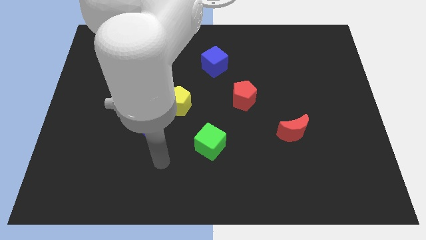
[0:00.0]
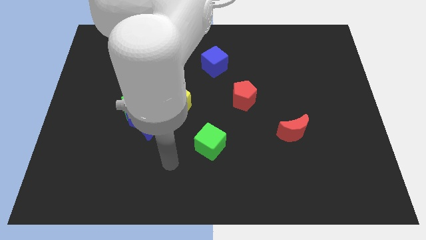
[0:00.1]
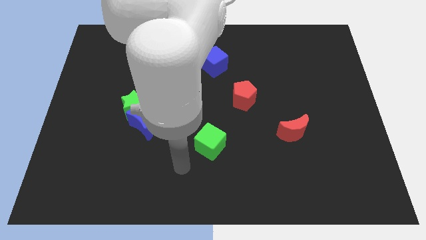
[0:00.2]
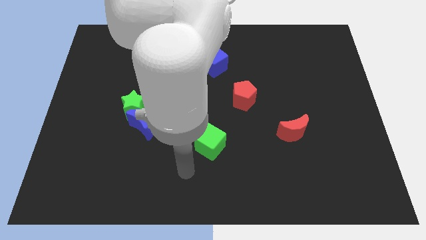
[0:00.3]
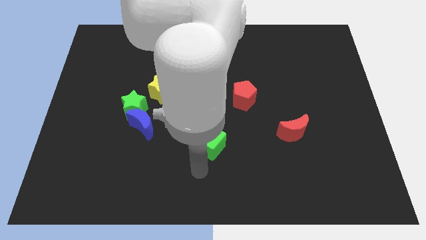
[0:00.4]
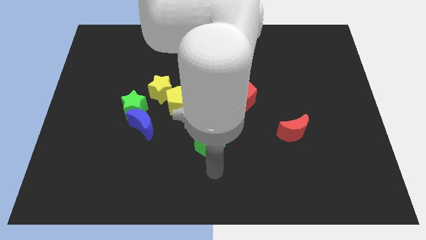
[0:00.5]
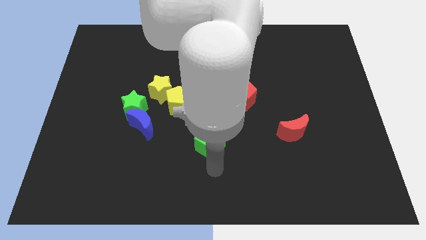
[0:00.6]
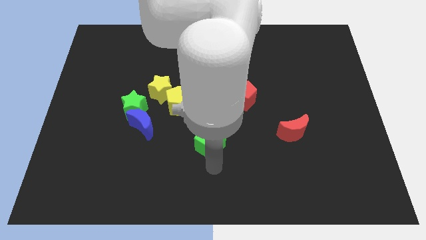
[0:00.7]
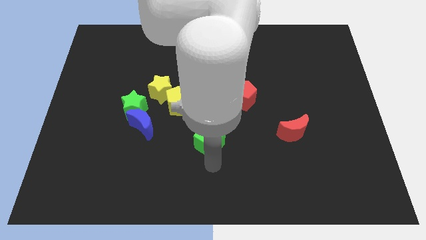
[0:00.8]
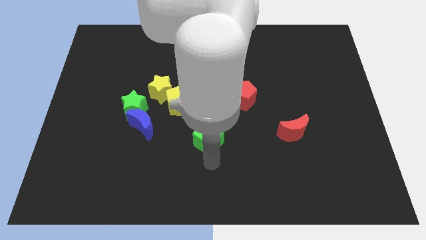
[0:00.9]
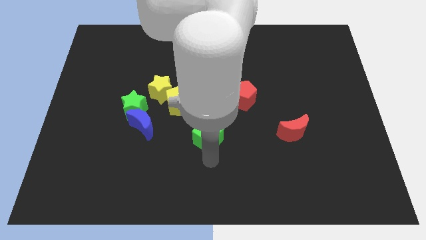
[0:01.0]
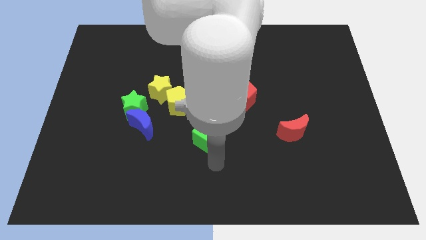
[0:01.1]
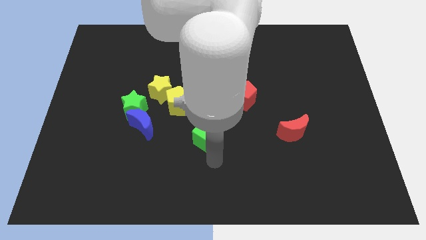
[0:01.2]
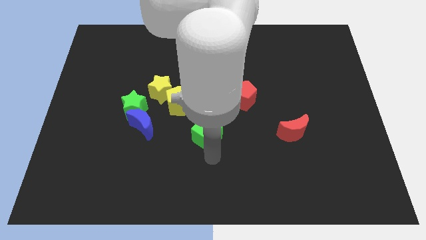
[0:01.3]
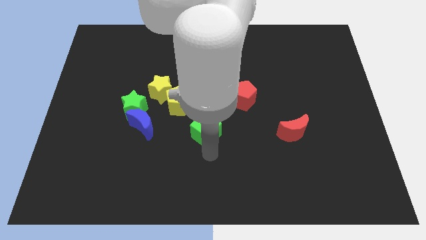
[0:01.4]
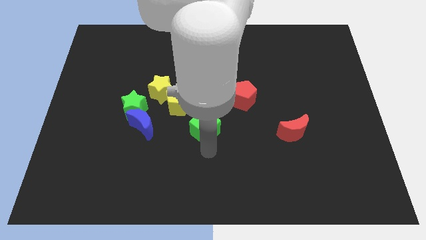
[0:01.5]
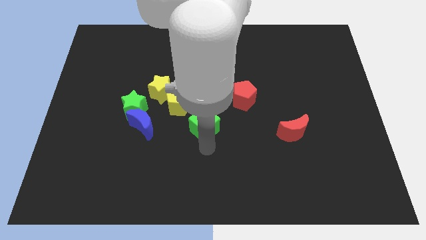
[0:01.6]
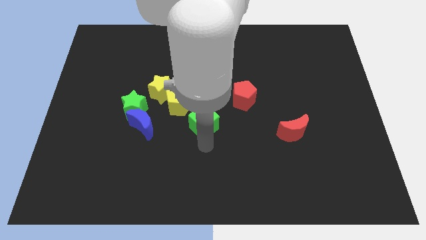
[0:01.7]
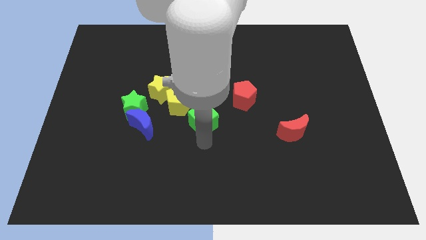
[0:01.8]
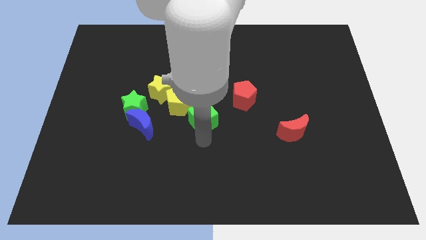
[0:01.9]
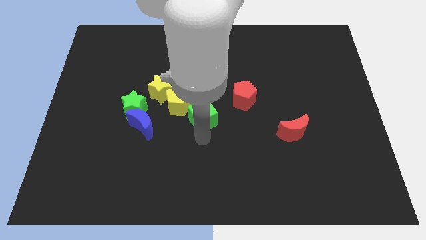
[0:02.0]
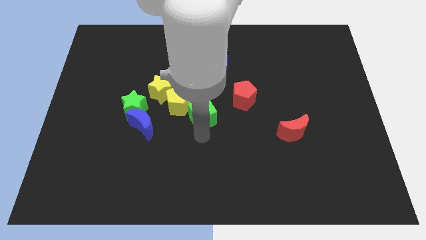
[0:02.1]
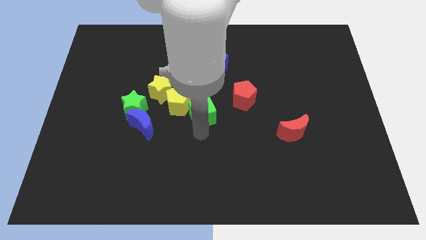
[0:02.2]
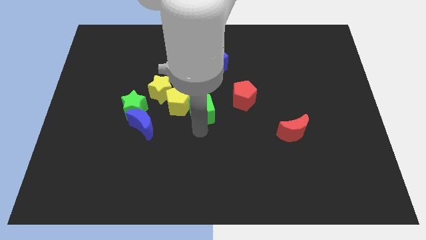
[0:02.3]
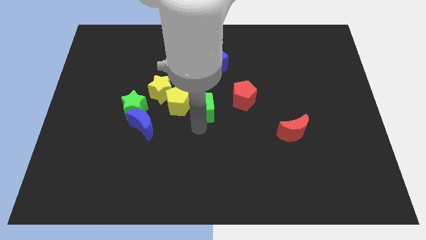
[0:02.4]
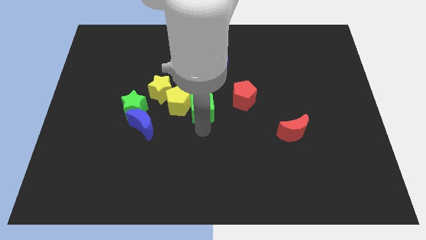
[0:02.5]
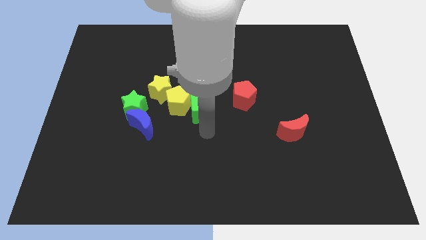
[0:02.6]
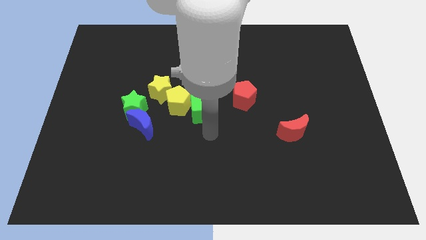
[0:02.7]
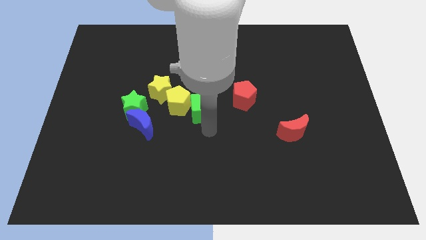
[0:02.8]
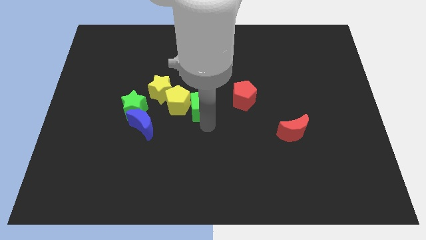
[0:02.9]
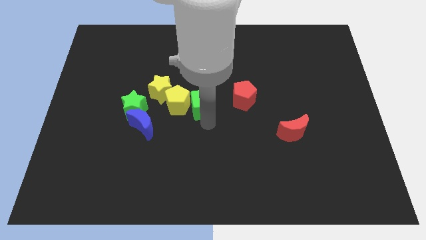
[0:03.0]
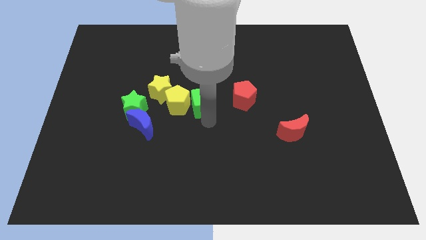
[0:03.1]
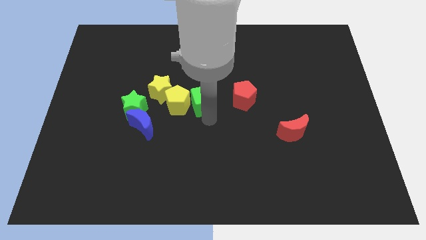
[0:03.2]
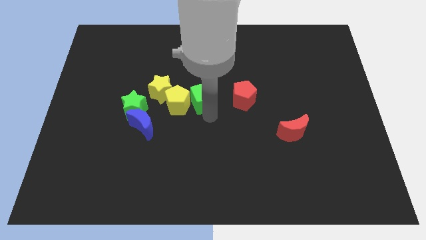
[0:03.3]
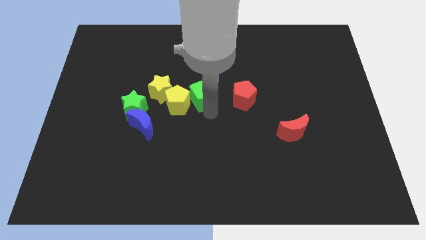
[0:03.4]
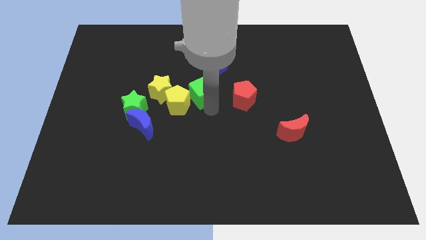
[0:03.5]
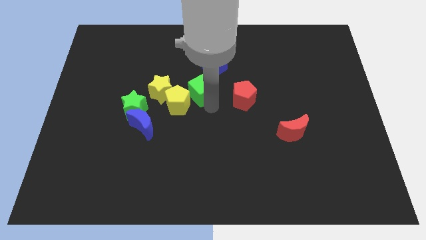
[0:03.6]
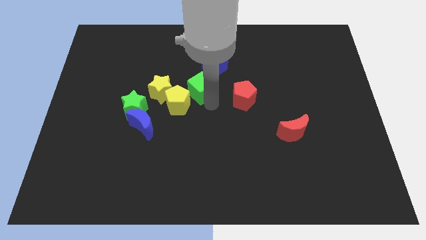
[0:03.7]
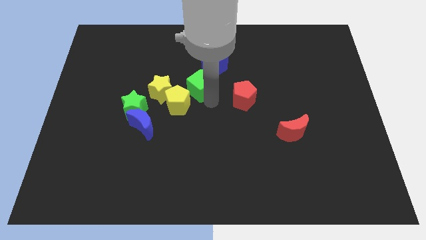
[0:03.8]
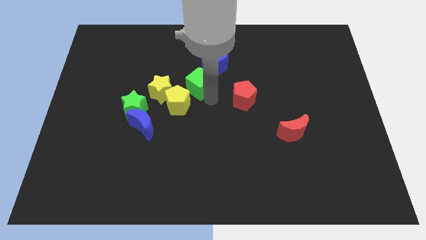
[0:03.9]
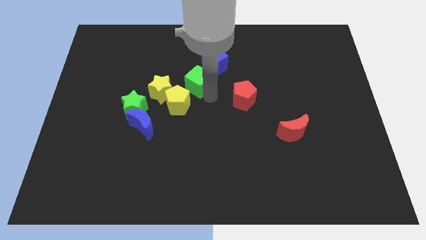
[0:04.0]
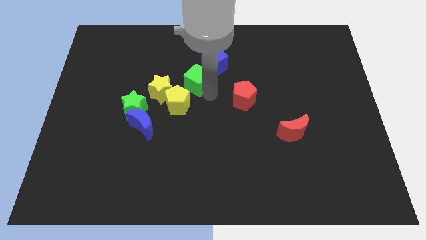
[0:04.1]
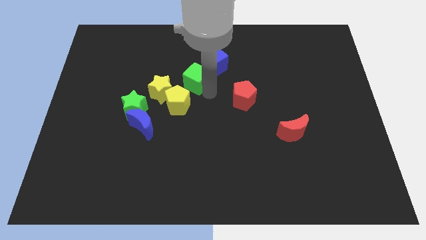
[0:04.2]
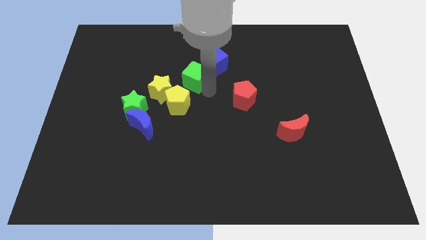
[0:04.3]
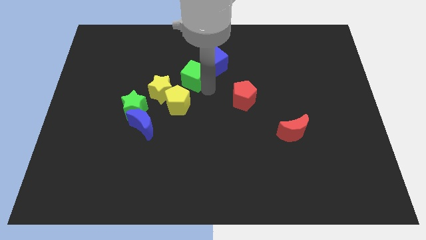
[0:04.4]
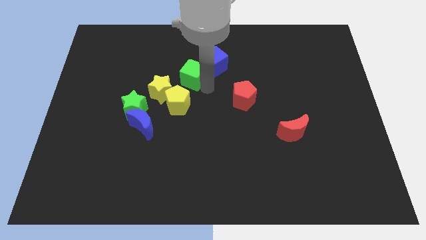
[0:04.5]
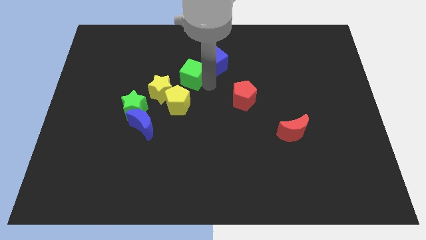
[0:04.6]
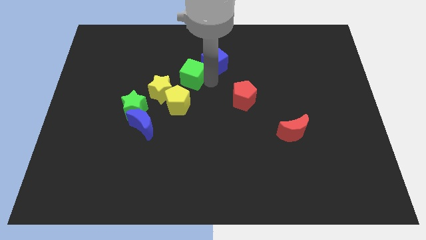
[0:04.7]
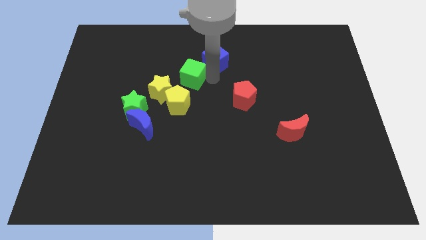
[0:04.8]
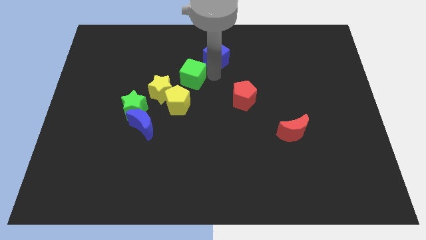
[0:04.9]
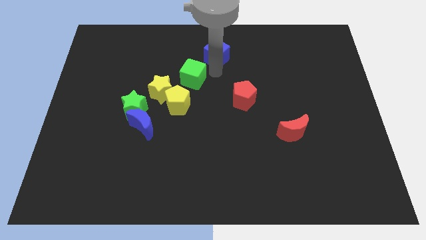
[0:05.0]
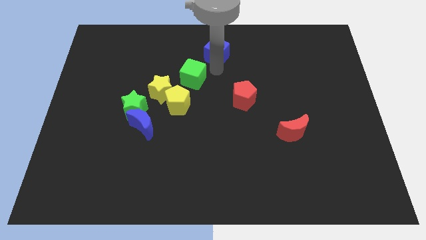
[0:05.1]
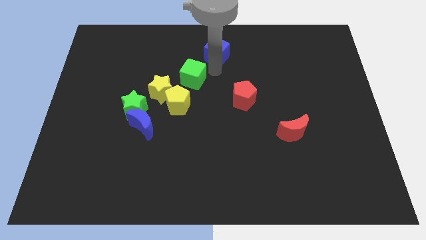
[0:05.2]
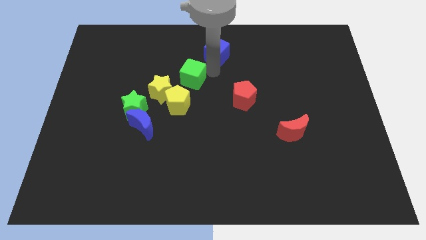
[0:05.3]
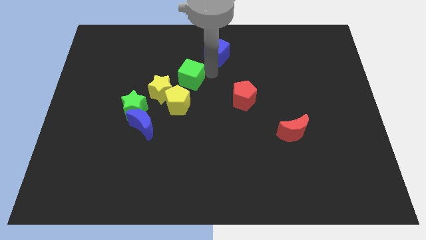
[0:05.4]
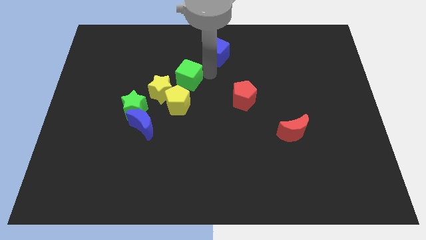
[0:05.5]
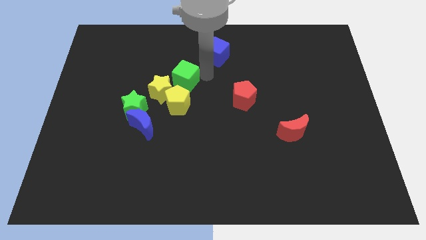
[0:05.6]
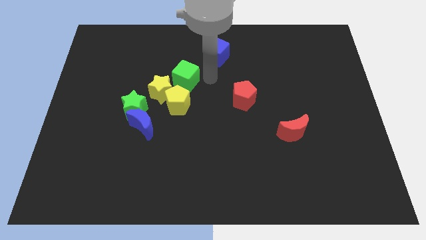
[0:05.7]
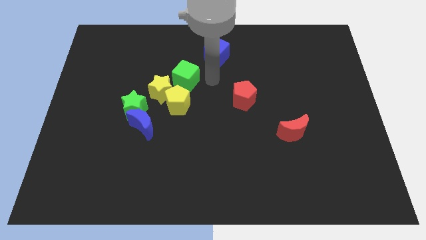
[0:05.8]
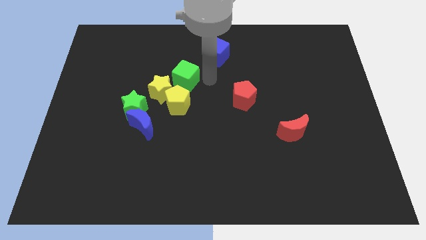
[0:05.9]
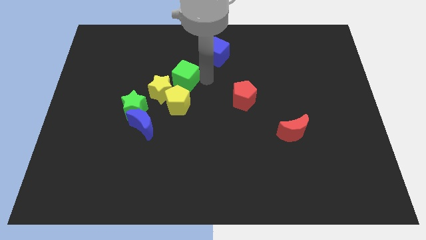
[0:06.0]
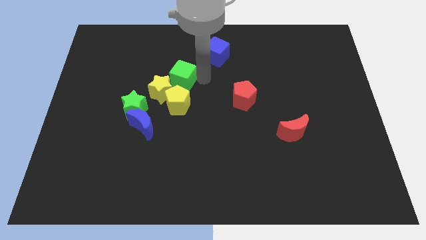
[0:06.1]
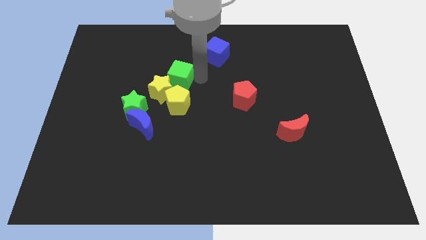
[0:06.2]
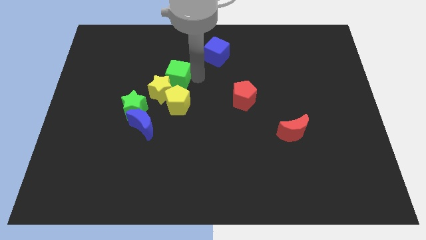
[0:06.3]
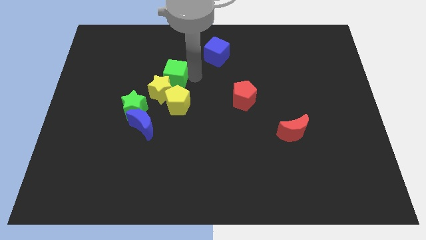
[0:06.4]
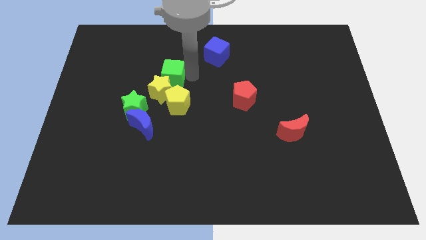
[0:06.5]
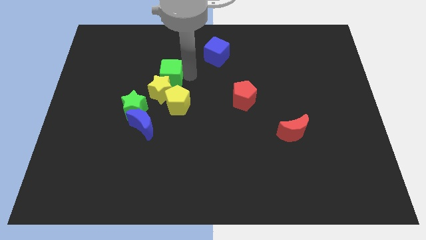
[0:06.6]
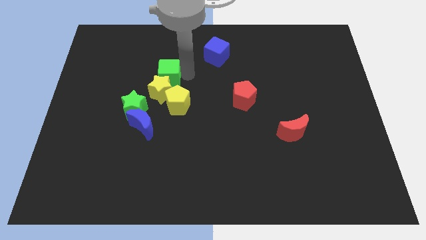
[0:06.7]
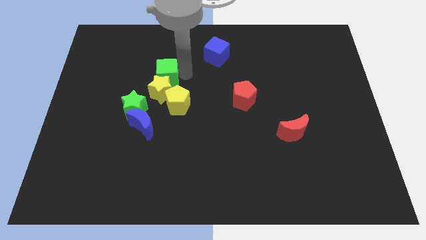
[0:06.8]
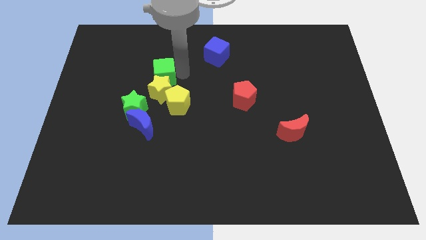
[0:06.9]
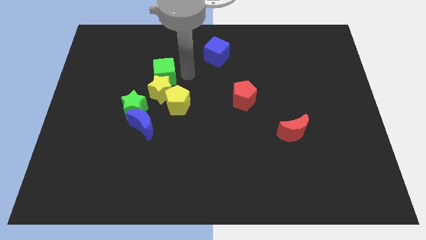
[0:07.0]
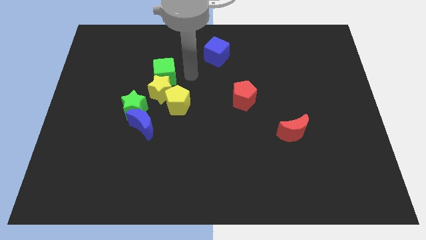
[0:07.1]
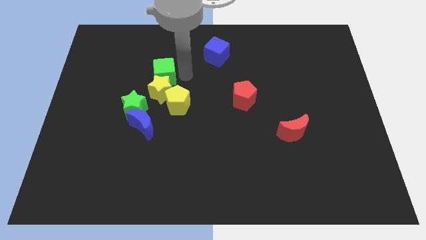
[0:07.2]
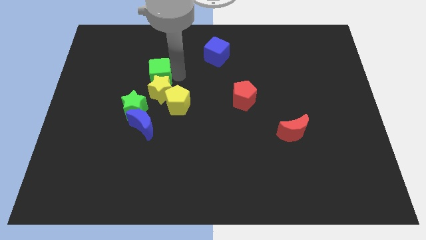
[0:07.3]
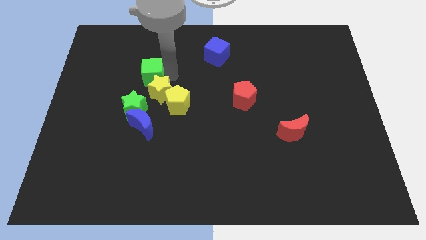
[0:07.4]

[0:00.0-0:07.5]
push the green cube to the top side of the green star
